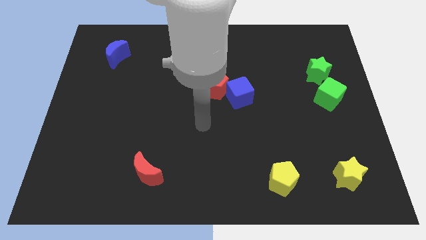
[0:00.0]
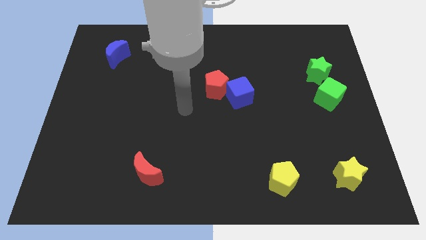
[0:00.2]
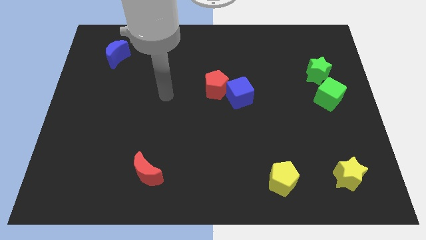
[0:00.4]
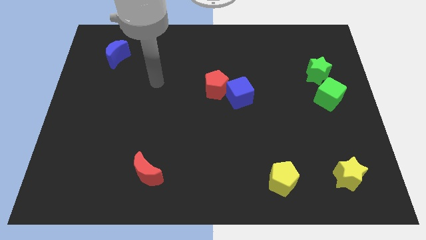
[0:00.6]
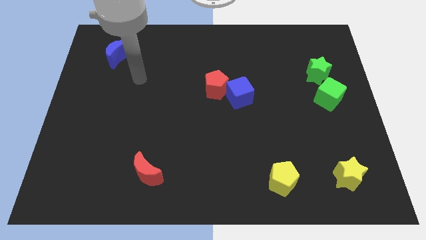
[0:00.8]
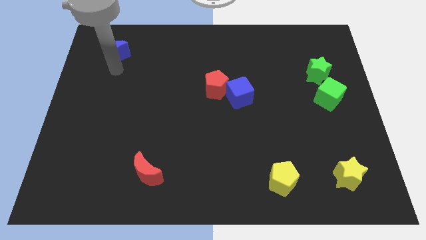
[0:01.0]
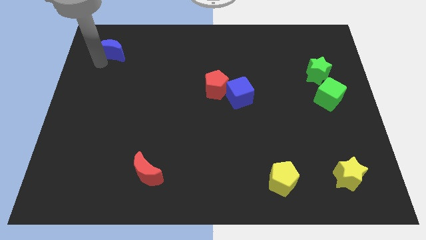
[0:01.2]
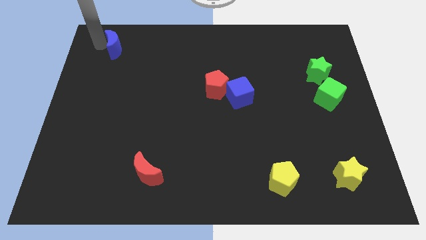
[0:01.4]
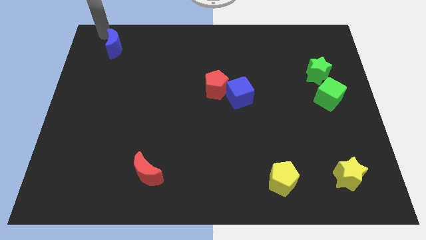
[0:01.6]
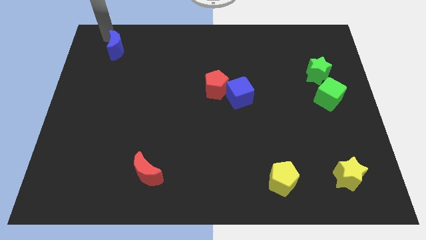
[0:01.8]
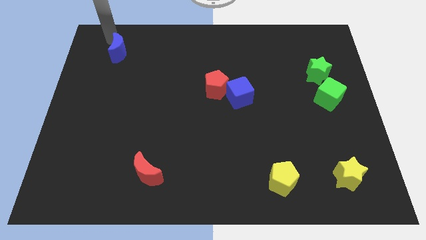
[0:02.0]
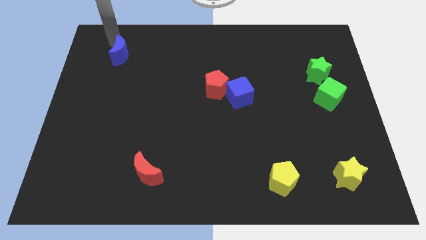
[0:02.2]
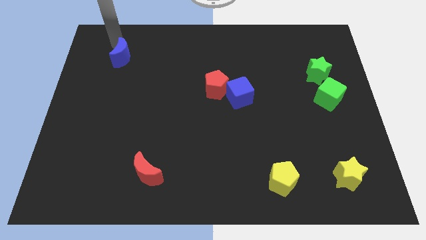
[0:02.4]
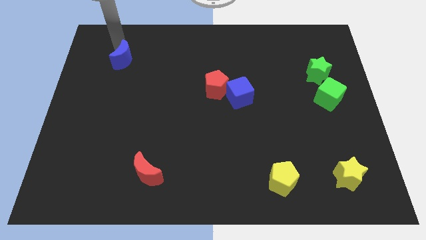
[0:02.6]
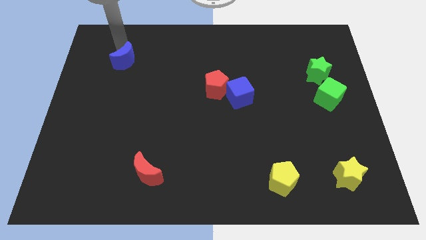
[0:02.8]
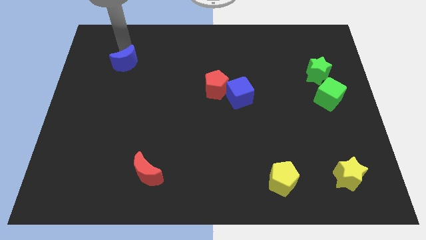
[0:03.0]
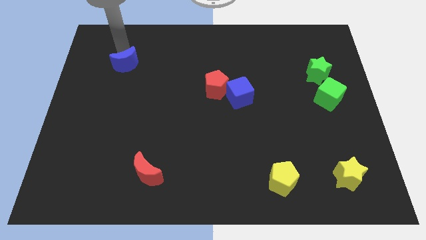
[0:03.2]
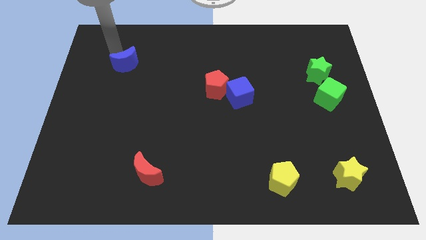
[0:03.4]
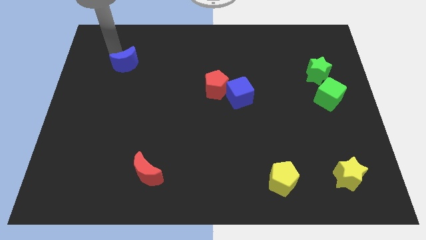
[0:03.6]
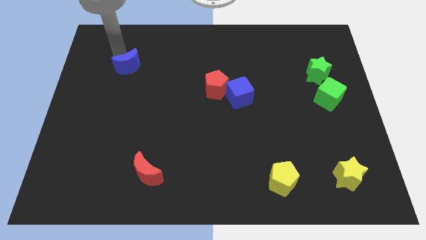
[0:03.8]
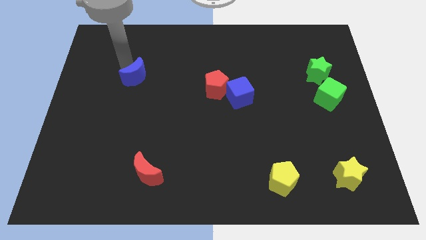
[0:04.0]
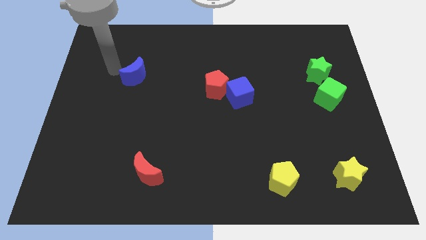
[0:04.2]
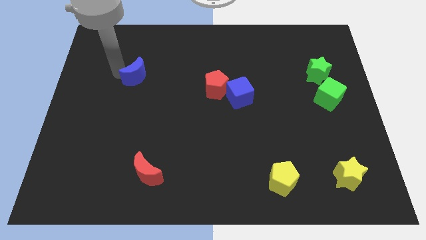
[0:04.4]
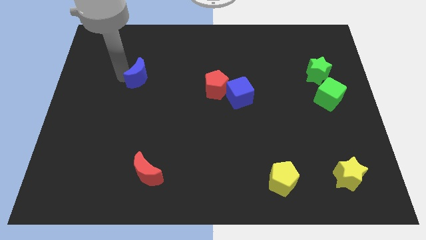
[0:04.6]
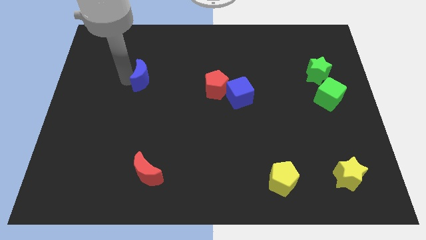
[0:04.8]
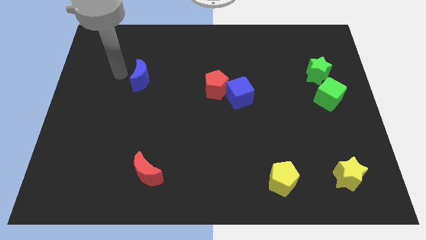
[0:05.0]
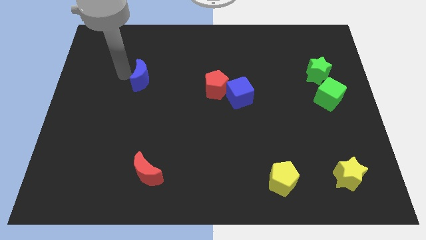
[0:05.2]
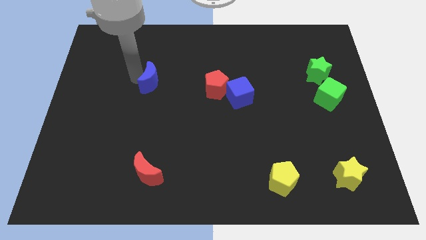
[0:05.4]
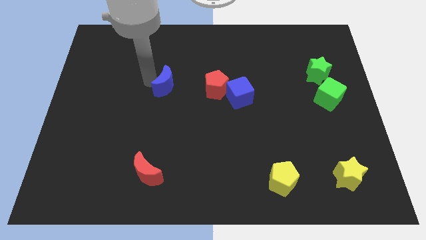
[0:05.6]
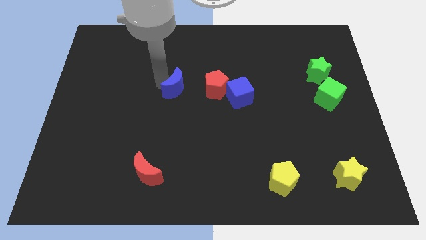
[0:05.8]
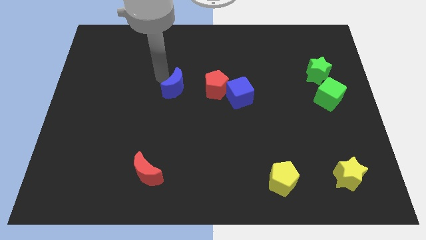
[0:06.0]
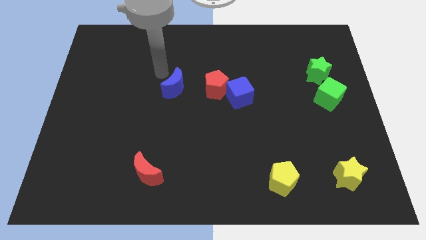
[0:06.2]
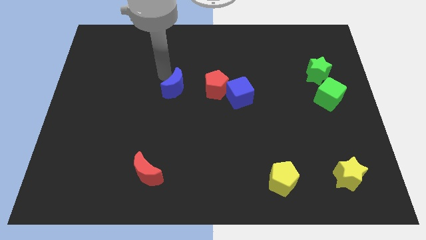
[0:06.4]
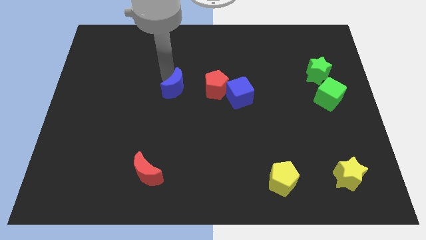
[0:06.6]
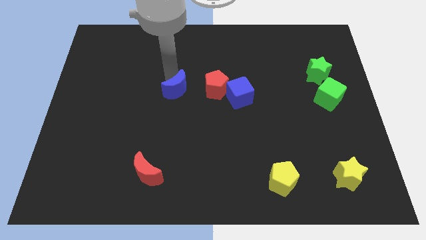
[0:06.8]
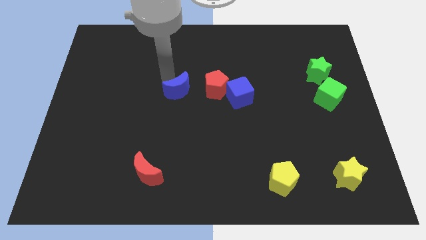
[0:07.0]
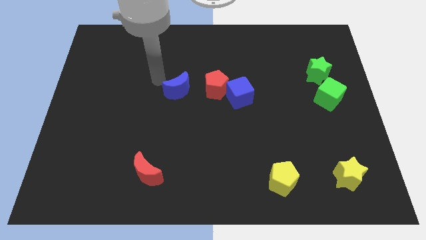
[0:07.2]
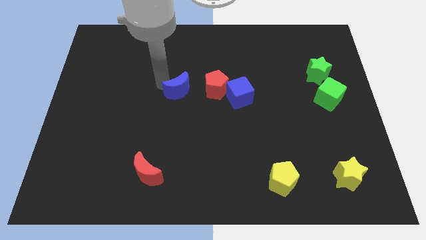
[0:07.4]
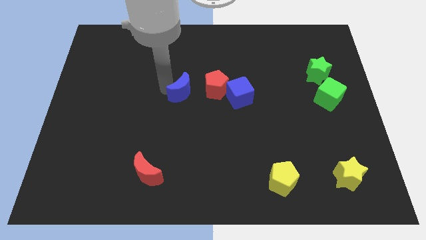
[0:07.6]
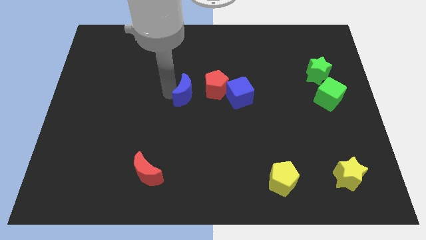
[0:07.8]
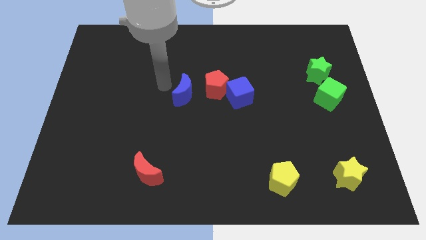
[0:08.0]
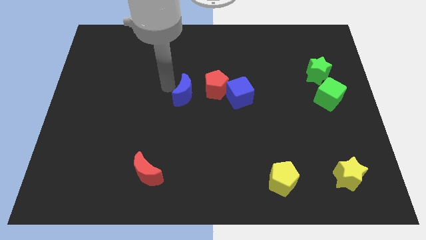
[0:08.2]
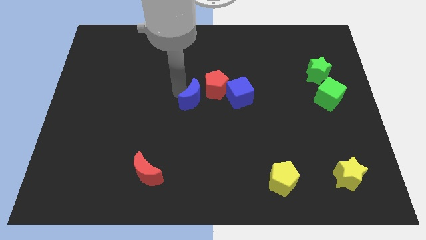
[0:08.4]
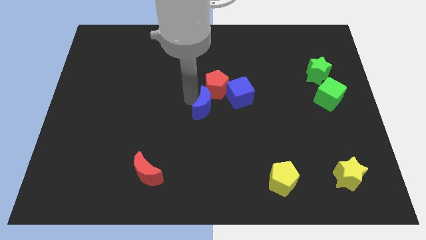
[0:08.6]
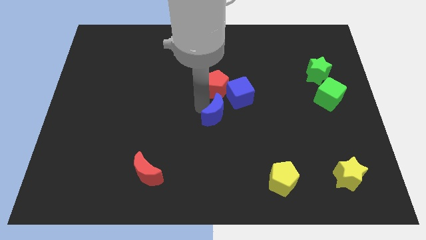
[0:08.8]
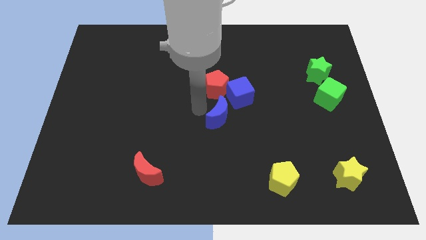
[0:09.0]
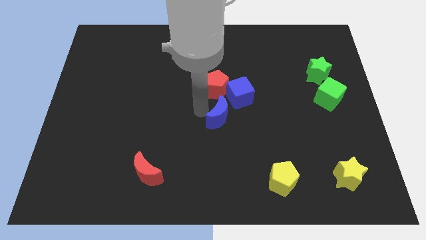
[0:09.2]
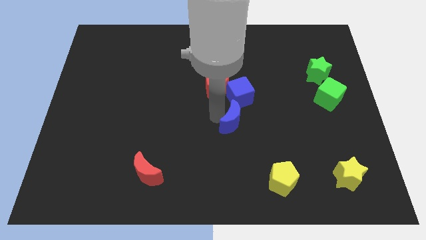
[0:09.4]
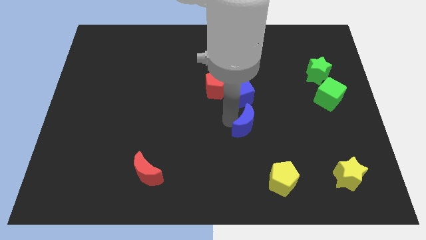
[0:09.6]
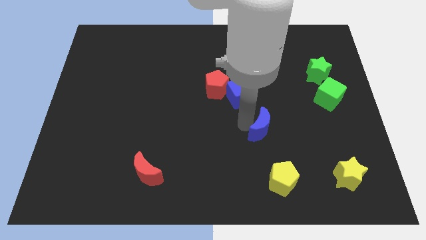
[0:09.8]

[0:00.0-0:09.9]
move the blue moon above the yellow pentagon

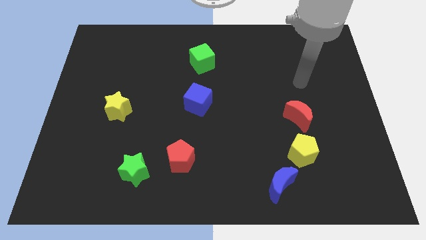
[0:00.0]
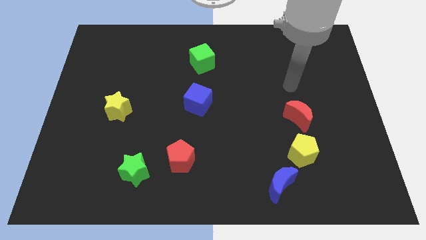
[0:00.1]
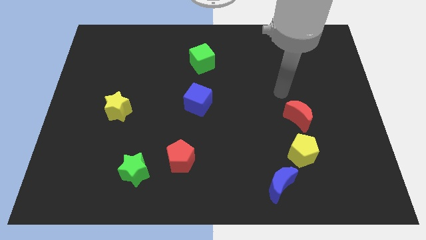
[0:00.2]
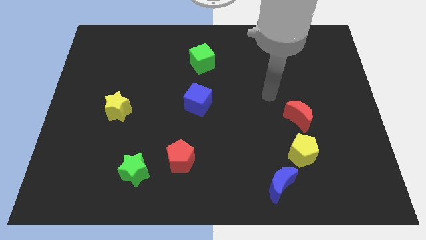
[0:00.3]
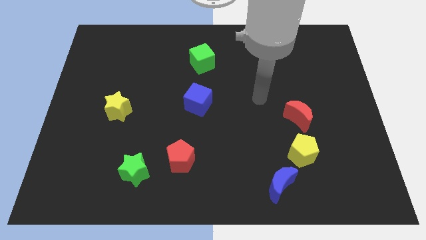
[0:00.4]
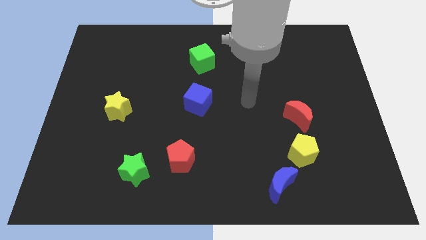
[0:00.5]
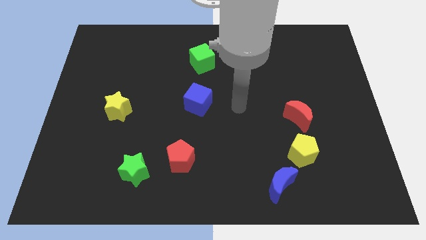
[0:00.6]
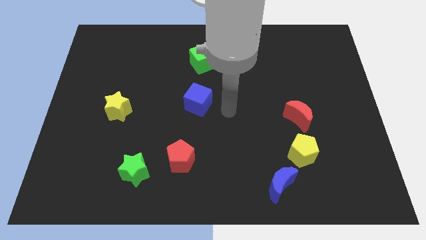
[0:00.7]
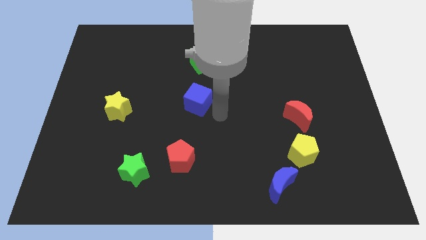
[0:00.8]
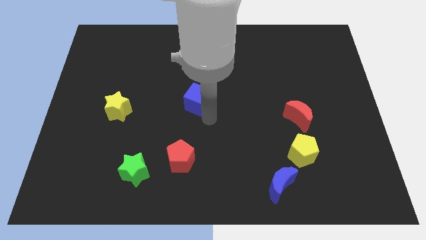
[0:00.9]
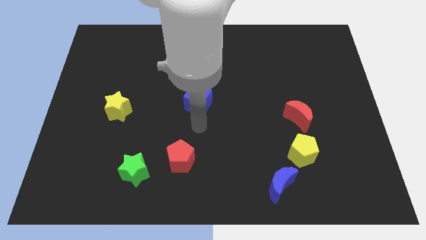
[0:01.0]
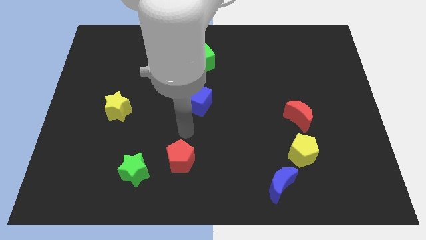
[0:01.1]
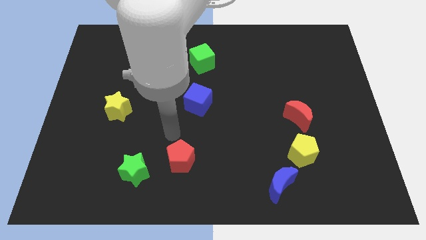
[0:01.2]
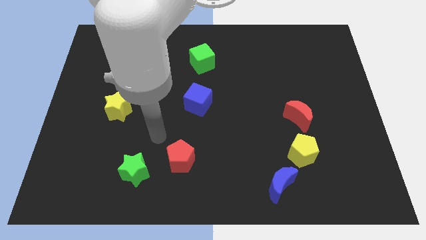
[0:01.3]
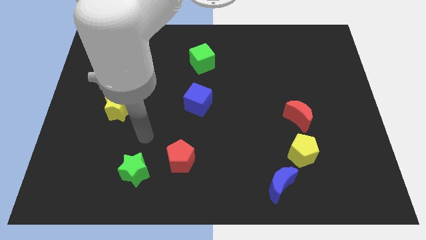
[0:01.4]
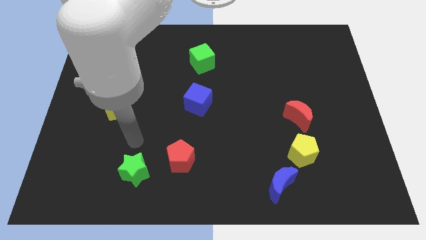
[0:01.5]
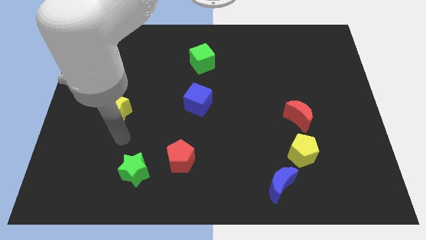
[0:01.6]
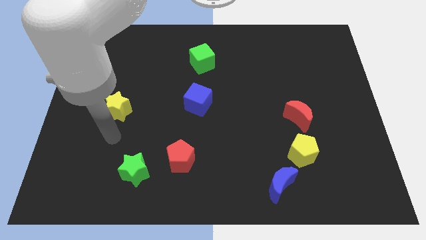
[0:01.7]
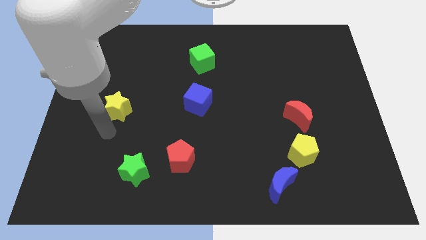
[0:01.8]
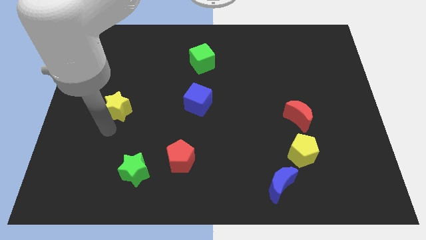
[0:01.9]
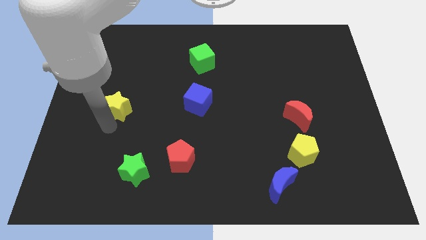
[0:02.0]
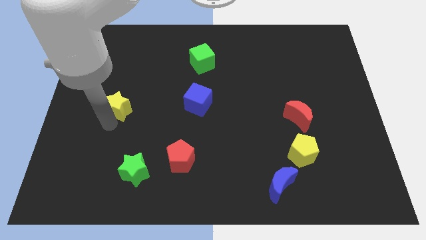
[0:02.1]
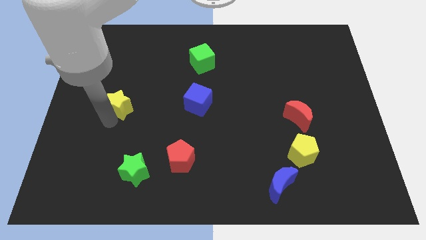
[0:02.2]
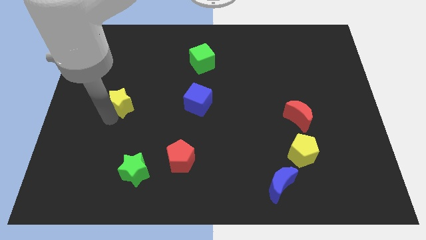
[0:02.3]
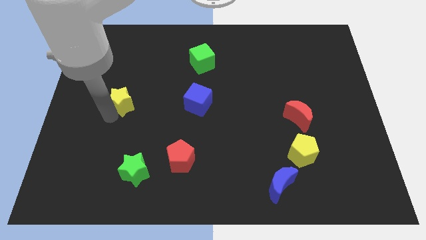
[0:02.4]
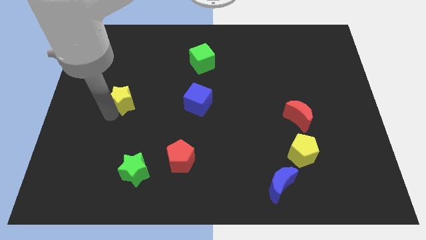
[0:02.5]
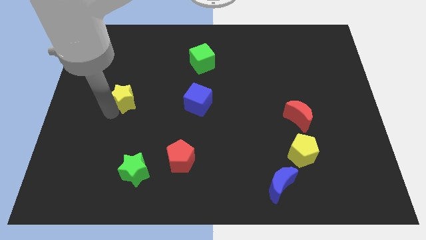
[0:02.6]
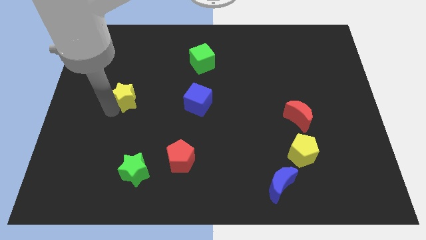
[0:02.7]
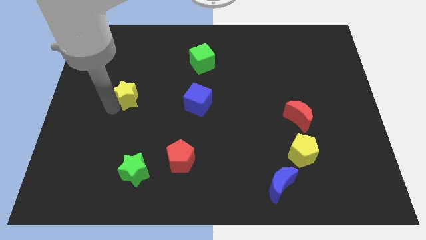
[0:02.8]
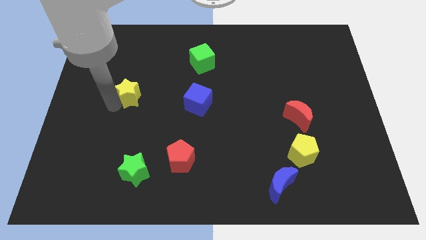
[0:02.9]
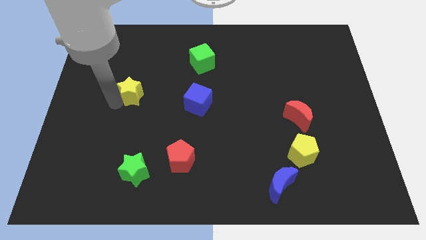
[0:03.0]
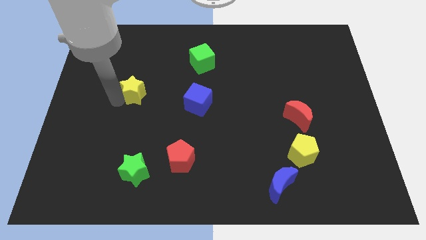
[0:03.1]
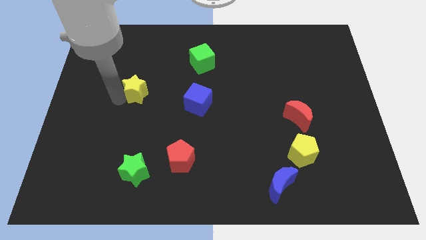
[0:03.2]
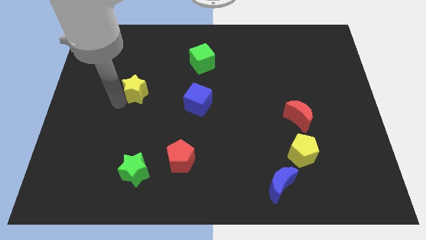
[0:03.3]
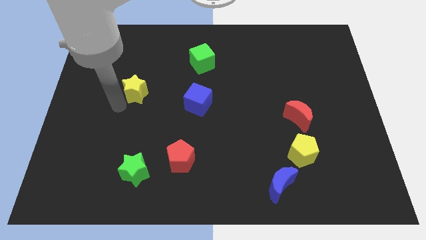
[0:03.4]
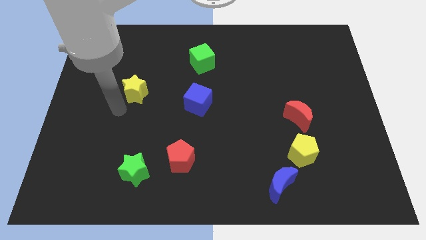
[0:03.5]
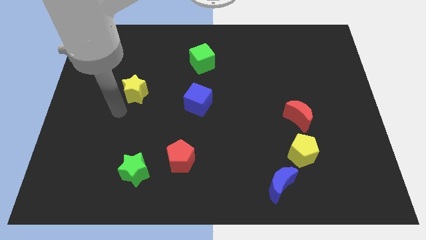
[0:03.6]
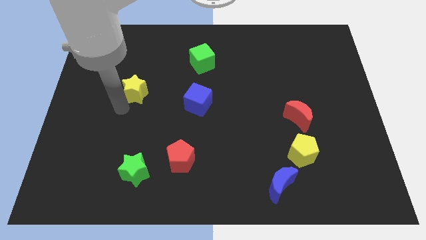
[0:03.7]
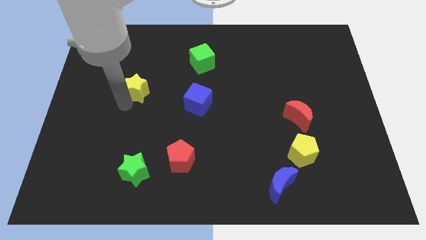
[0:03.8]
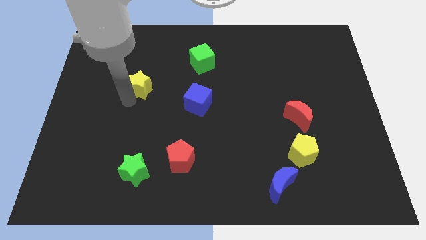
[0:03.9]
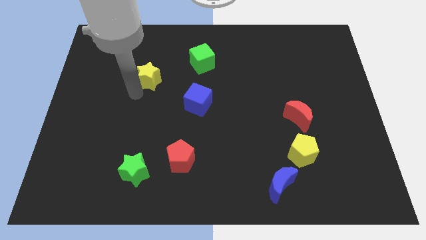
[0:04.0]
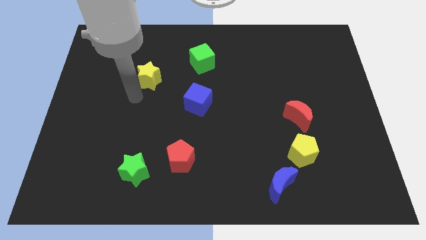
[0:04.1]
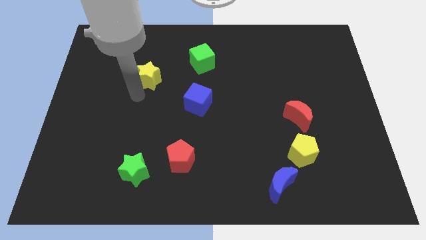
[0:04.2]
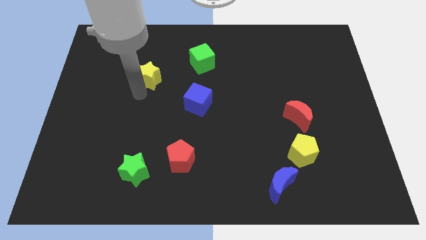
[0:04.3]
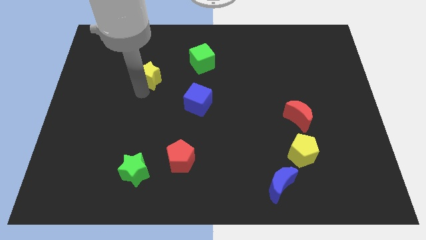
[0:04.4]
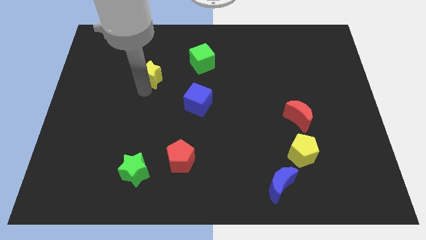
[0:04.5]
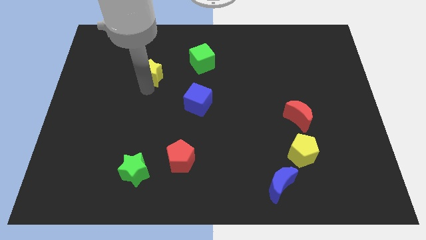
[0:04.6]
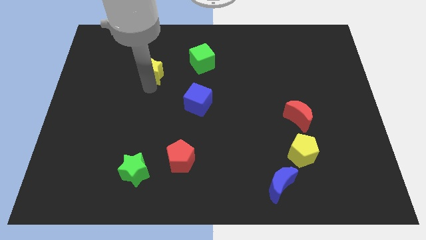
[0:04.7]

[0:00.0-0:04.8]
slide the yellow star to the left of the green cube
